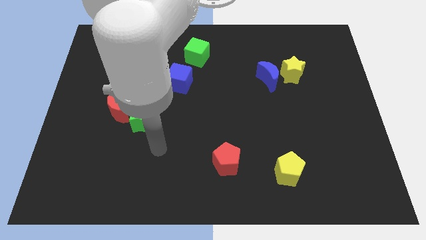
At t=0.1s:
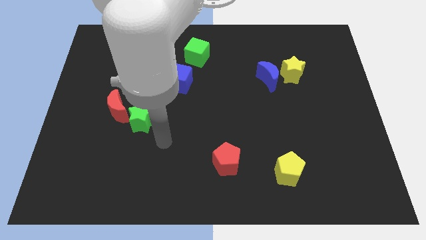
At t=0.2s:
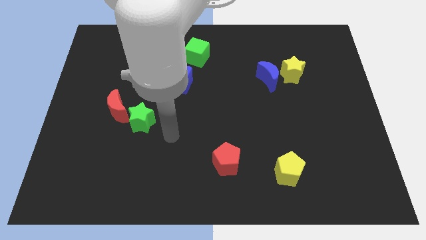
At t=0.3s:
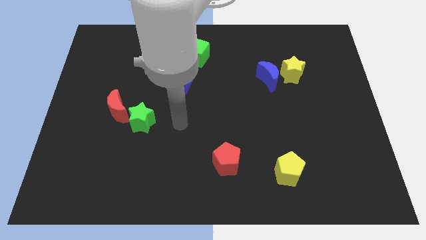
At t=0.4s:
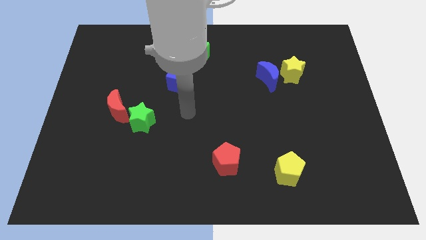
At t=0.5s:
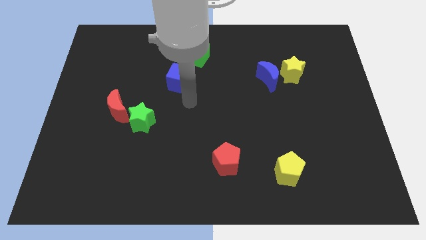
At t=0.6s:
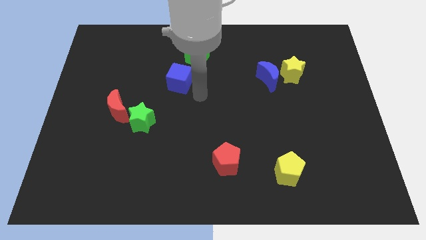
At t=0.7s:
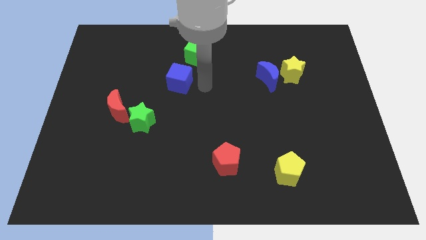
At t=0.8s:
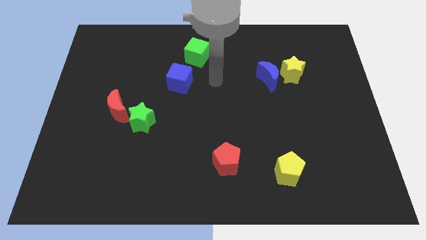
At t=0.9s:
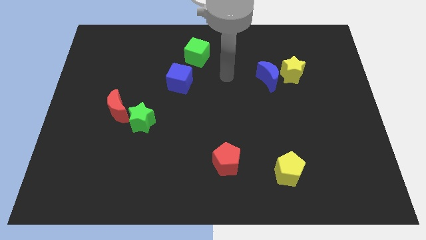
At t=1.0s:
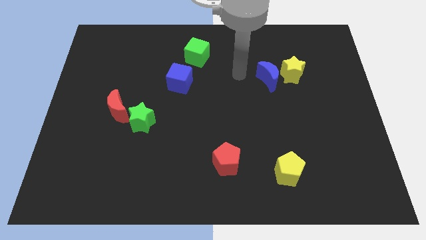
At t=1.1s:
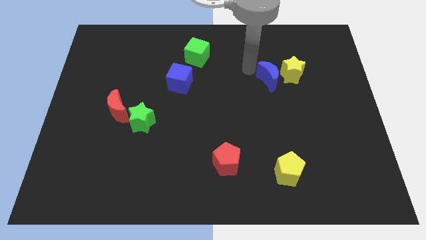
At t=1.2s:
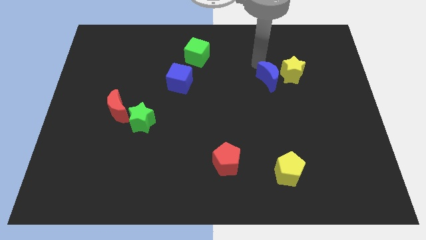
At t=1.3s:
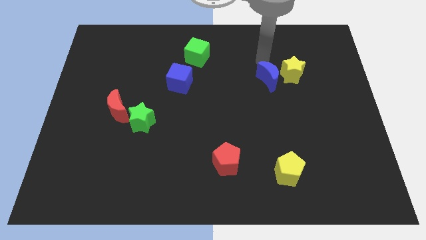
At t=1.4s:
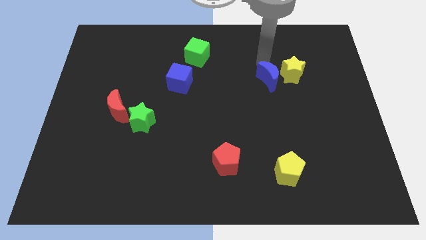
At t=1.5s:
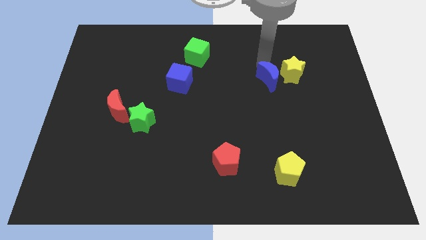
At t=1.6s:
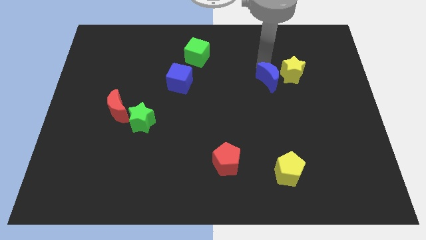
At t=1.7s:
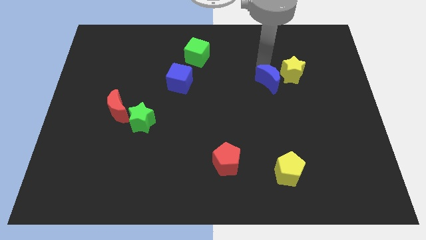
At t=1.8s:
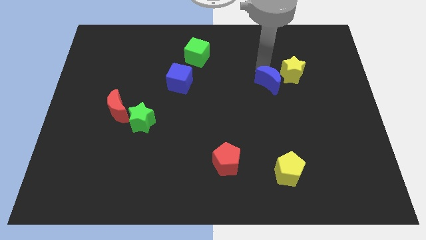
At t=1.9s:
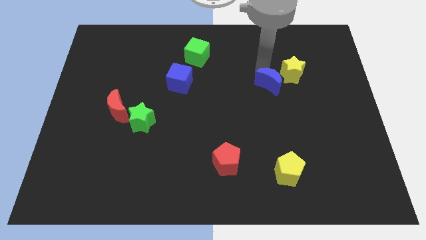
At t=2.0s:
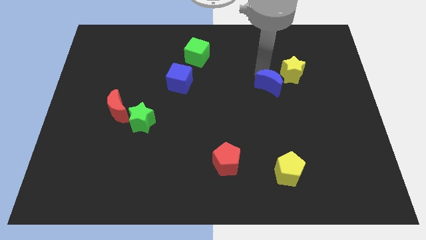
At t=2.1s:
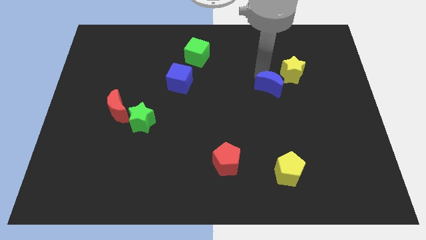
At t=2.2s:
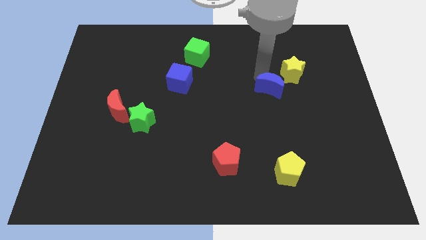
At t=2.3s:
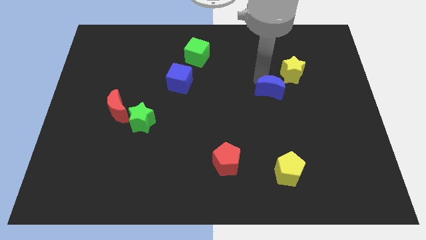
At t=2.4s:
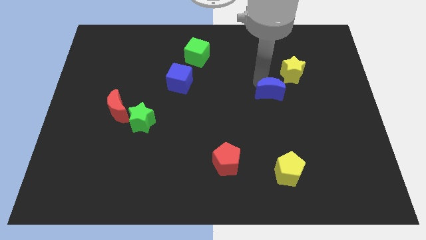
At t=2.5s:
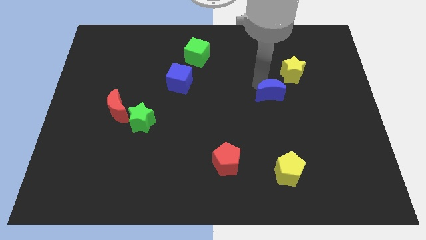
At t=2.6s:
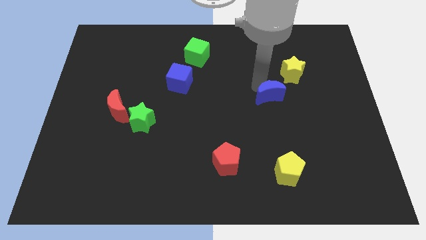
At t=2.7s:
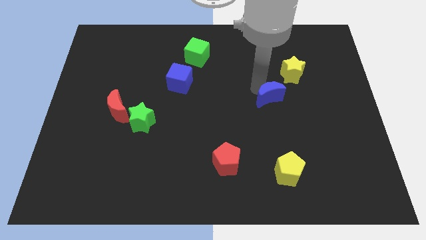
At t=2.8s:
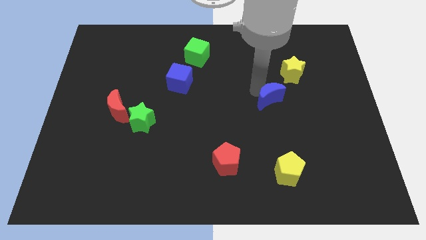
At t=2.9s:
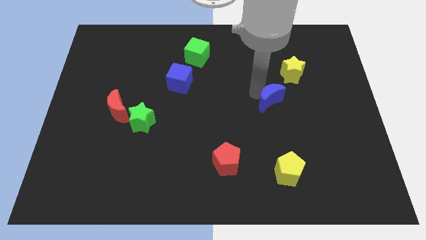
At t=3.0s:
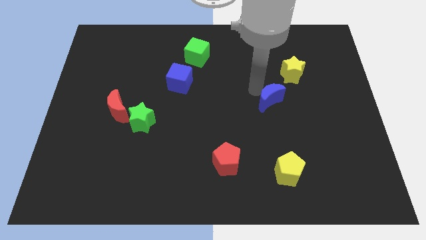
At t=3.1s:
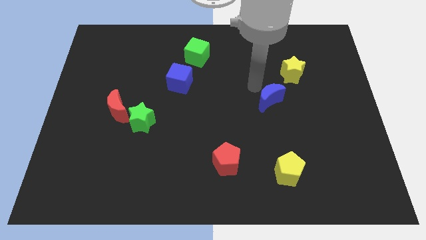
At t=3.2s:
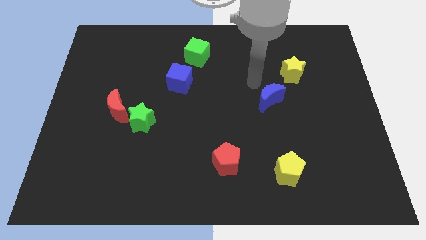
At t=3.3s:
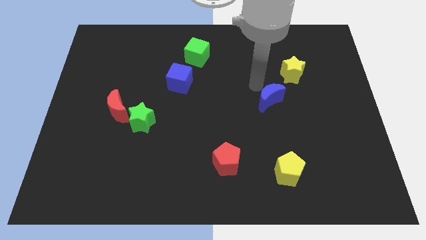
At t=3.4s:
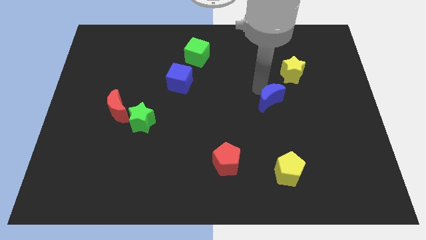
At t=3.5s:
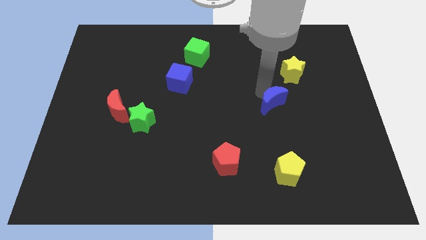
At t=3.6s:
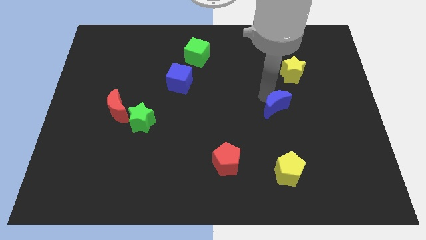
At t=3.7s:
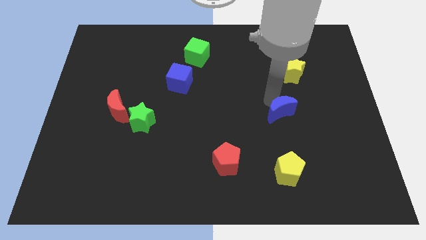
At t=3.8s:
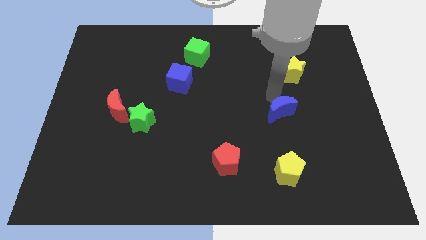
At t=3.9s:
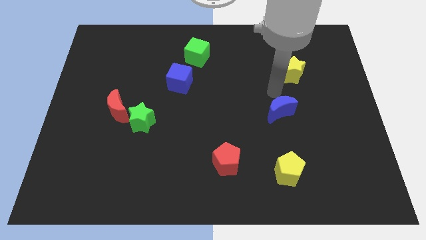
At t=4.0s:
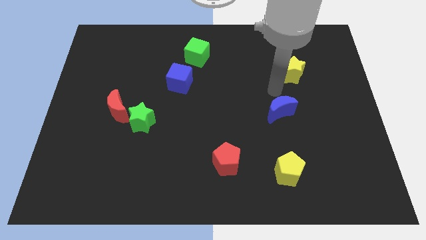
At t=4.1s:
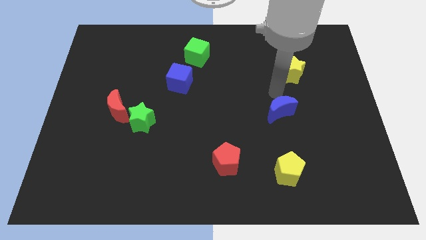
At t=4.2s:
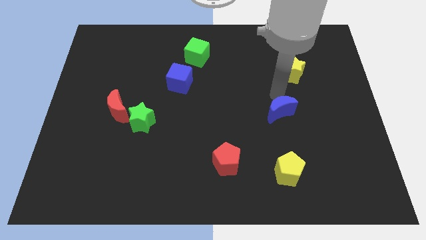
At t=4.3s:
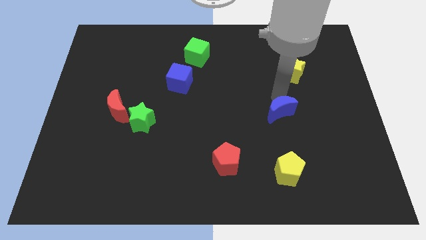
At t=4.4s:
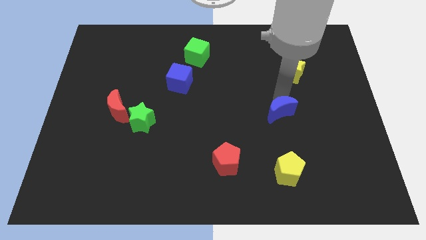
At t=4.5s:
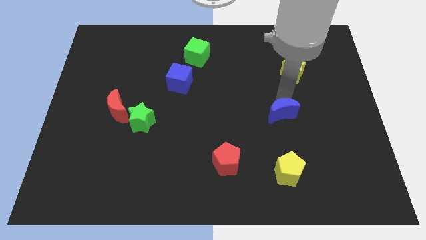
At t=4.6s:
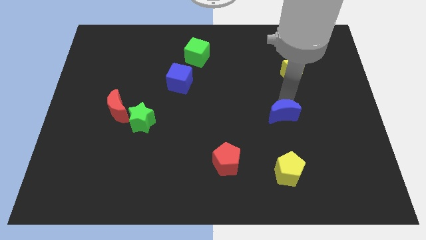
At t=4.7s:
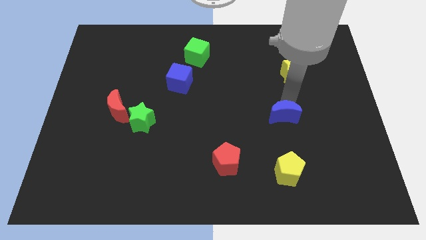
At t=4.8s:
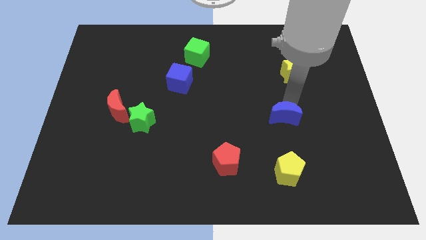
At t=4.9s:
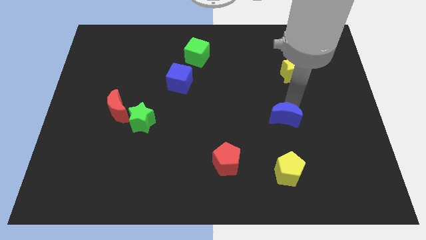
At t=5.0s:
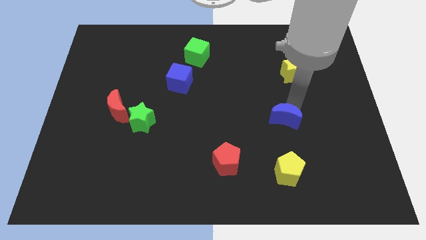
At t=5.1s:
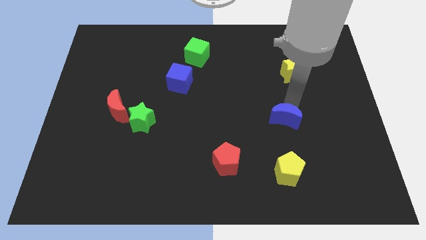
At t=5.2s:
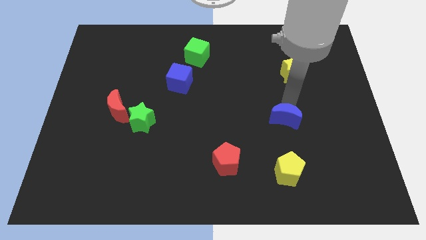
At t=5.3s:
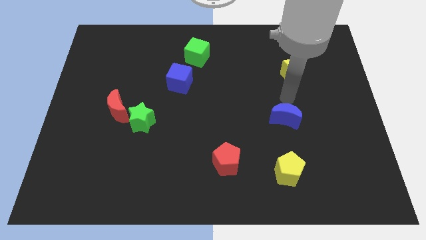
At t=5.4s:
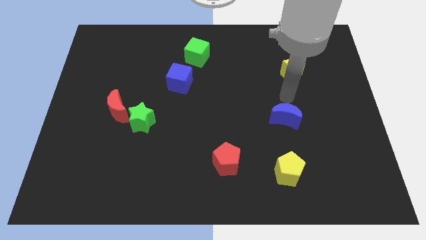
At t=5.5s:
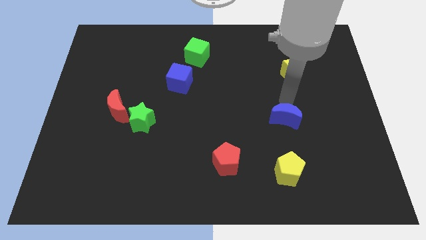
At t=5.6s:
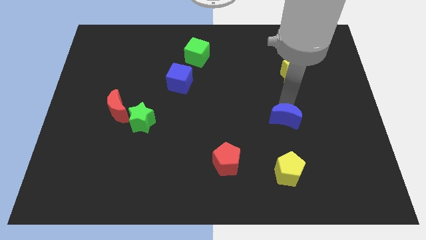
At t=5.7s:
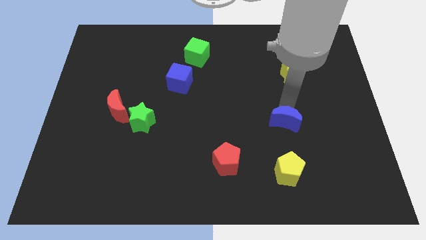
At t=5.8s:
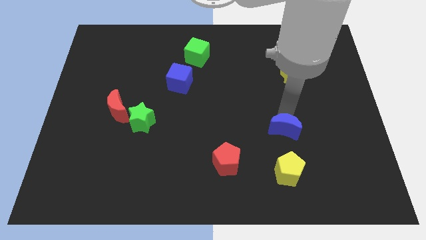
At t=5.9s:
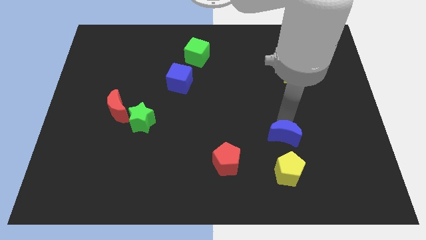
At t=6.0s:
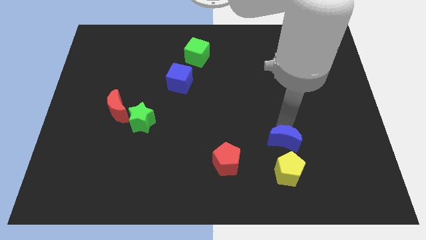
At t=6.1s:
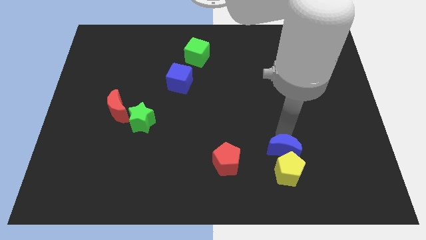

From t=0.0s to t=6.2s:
slide the blue moon to the yellow pentagon
